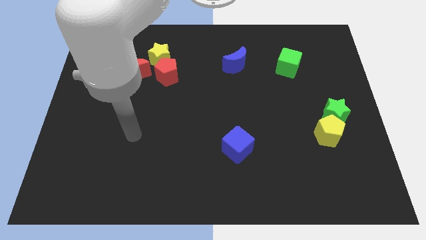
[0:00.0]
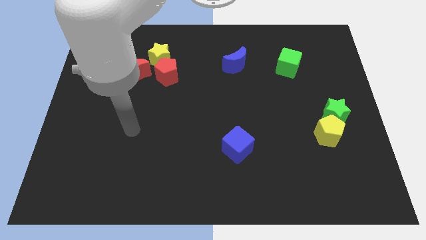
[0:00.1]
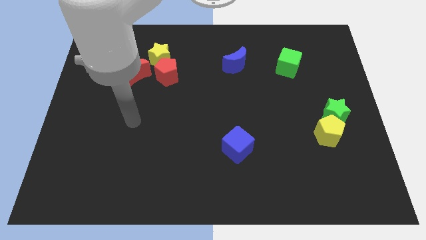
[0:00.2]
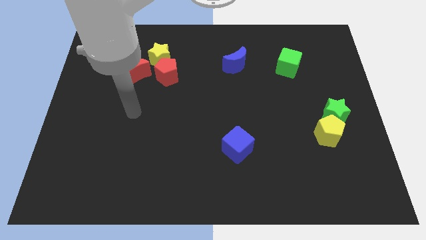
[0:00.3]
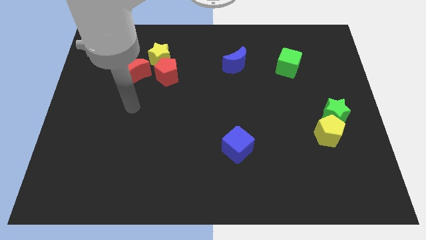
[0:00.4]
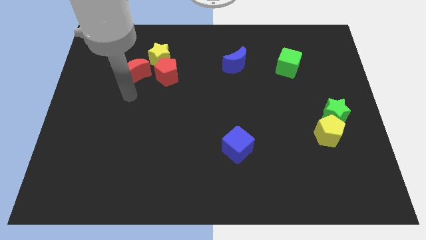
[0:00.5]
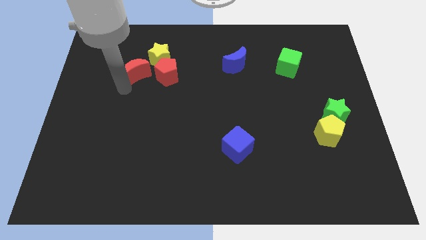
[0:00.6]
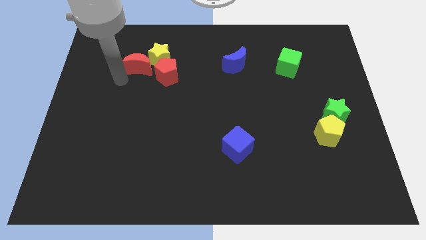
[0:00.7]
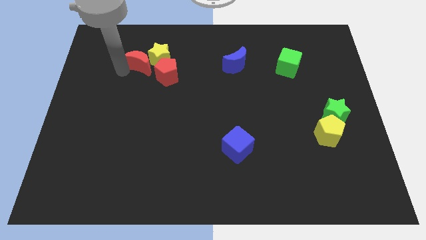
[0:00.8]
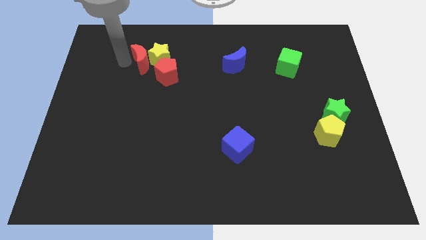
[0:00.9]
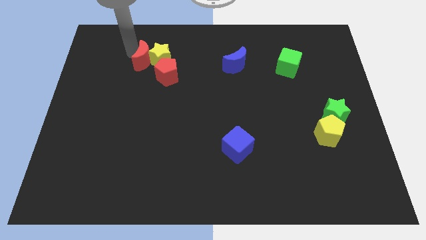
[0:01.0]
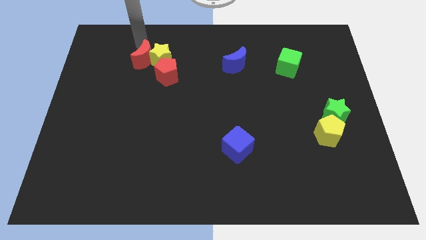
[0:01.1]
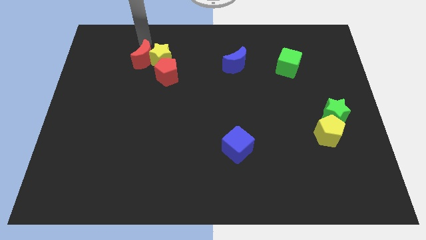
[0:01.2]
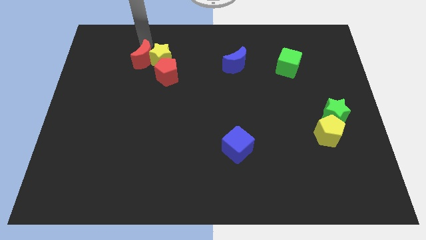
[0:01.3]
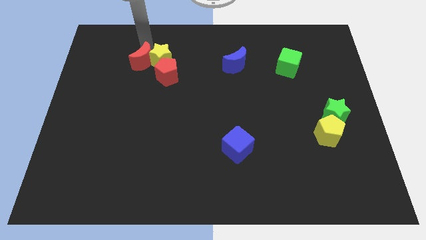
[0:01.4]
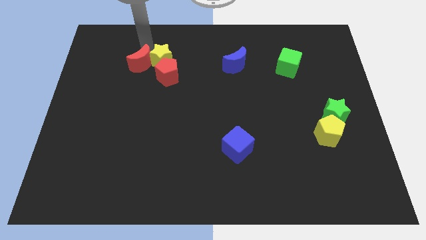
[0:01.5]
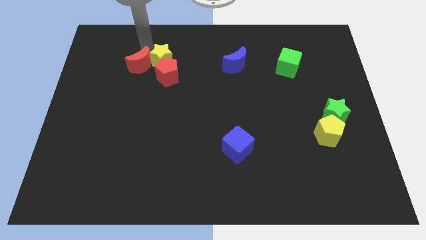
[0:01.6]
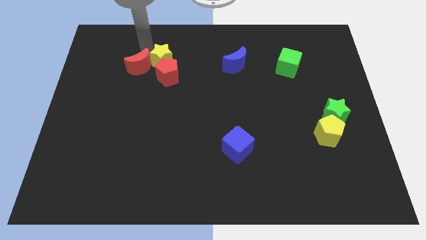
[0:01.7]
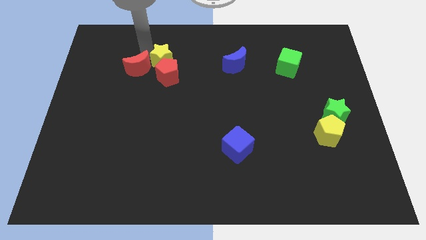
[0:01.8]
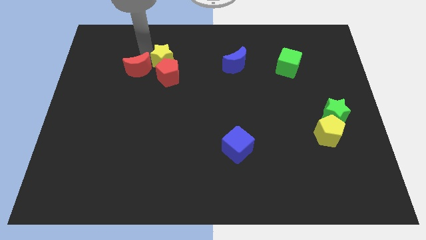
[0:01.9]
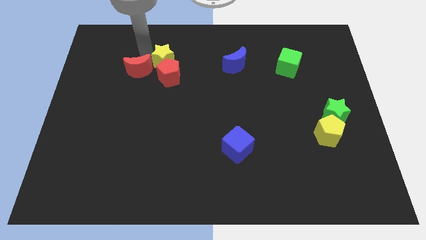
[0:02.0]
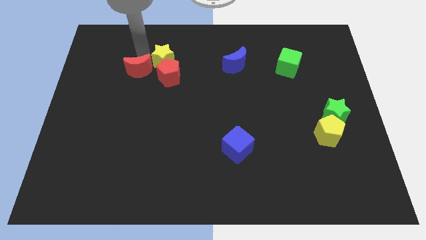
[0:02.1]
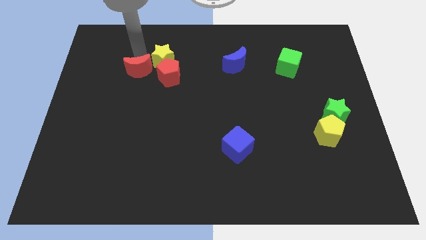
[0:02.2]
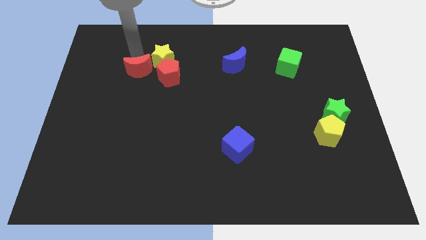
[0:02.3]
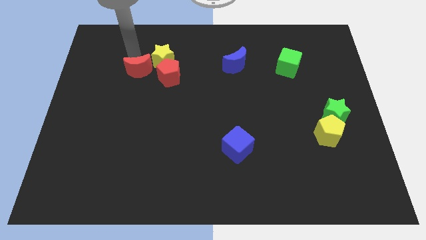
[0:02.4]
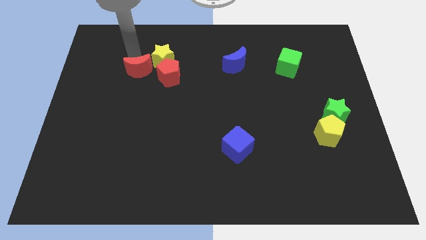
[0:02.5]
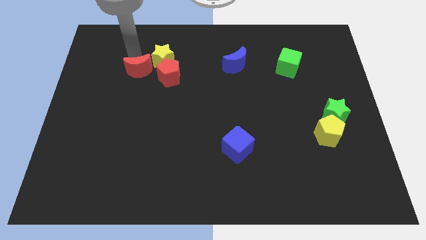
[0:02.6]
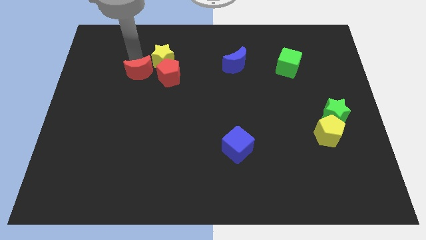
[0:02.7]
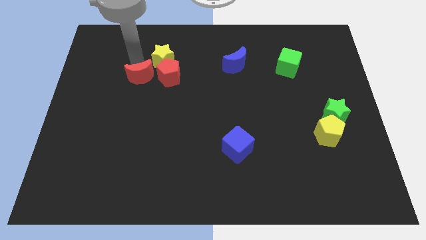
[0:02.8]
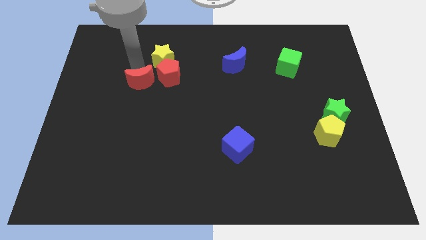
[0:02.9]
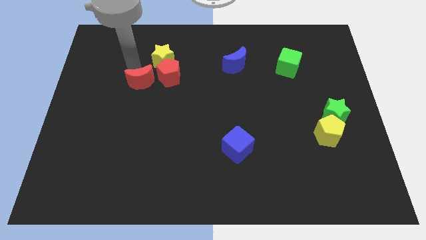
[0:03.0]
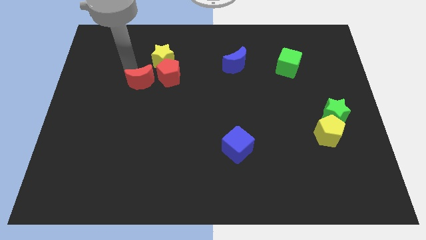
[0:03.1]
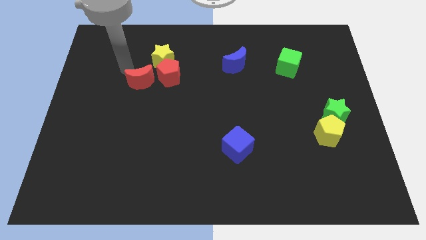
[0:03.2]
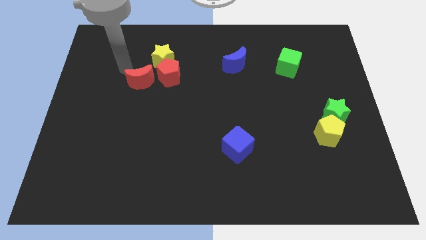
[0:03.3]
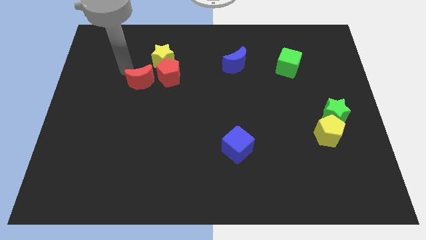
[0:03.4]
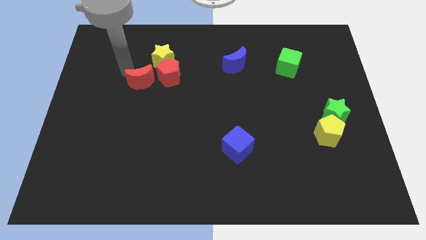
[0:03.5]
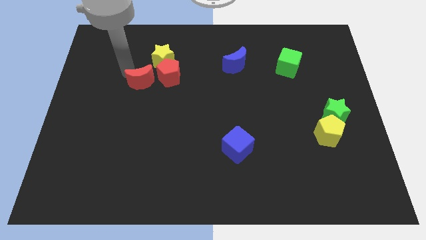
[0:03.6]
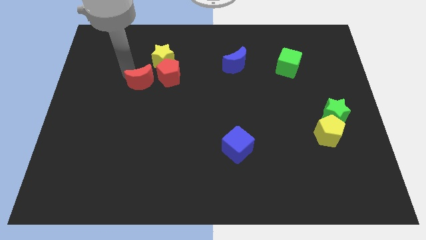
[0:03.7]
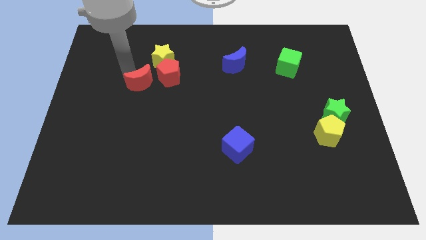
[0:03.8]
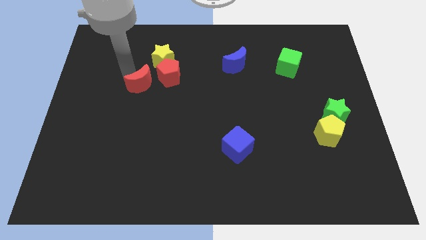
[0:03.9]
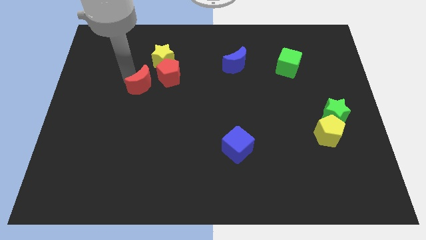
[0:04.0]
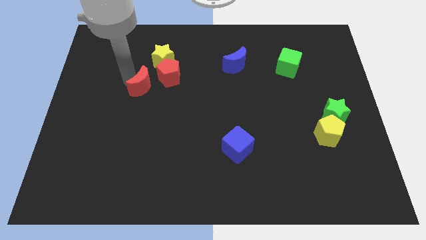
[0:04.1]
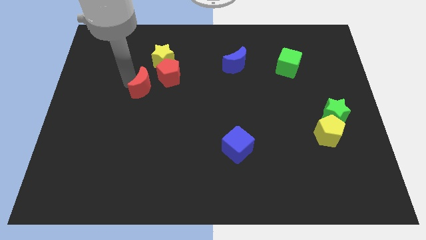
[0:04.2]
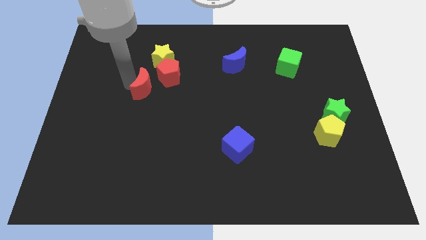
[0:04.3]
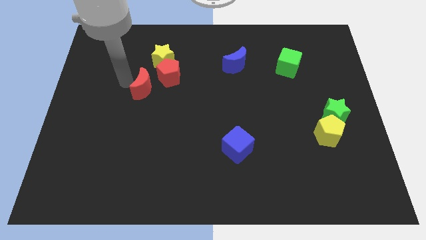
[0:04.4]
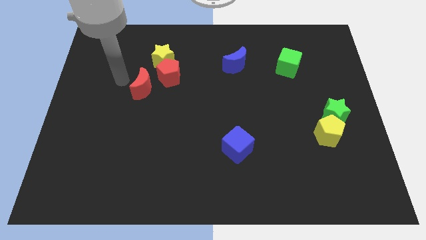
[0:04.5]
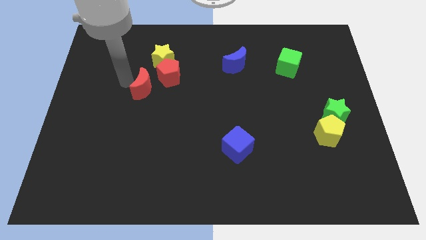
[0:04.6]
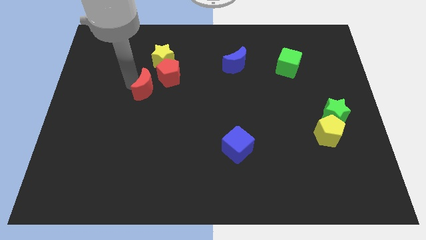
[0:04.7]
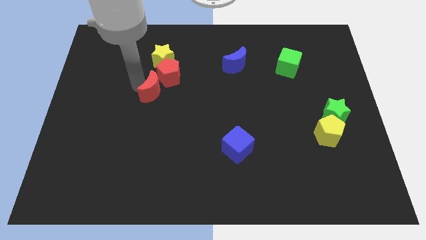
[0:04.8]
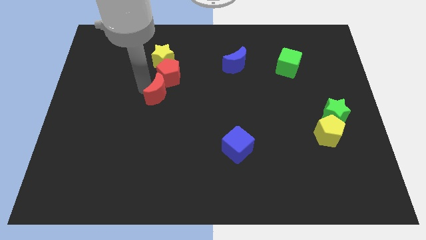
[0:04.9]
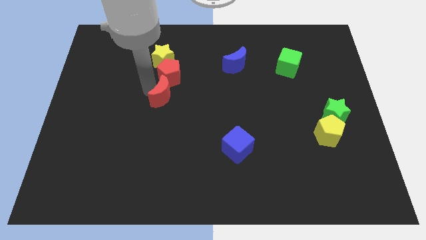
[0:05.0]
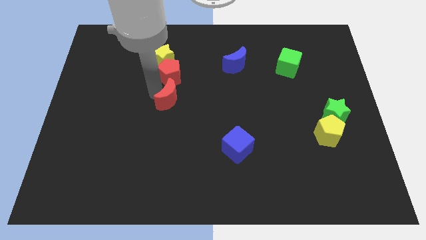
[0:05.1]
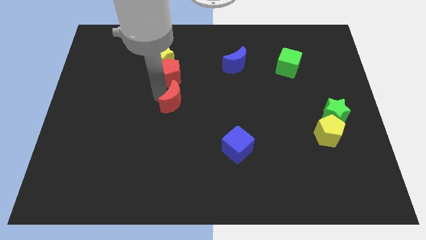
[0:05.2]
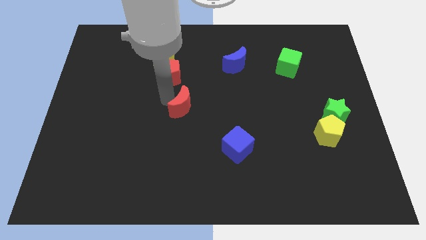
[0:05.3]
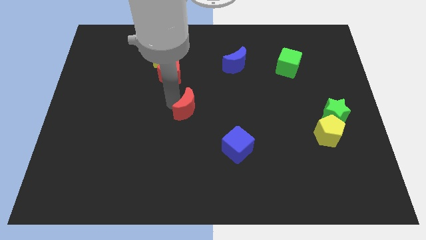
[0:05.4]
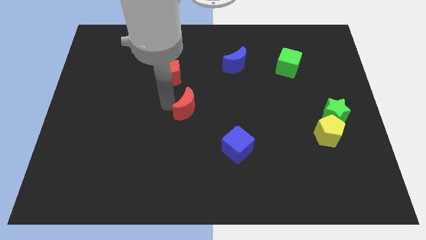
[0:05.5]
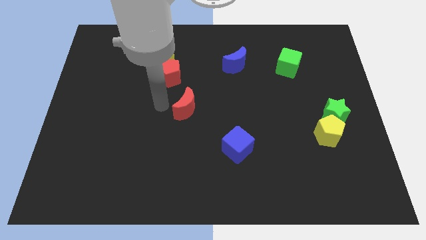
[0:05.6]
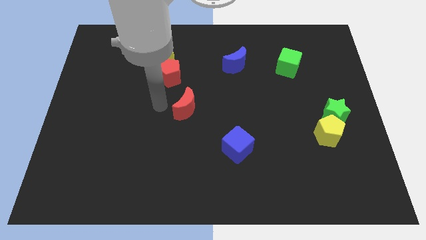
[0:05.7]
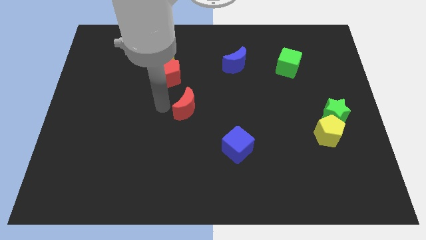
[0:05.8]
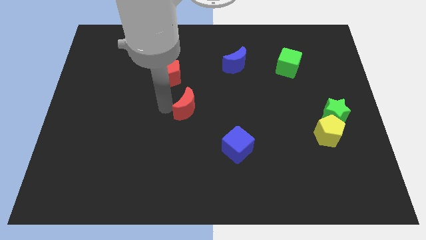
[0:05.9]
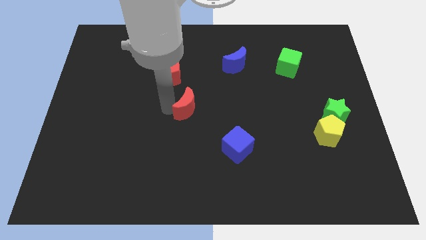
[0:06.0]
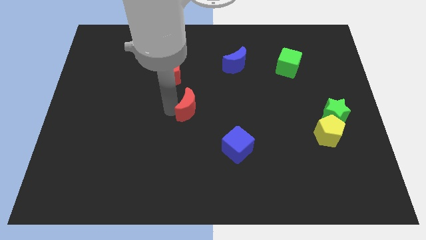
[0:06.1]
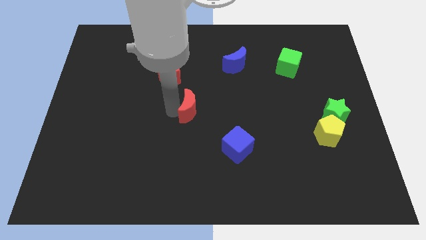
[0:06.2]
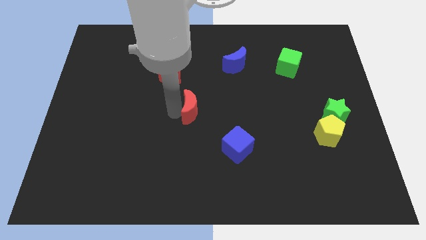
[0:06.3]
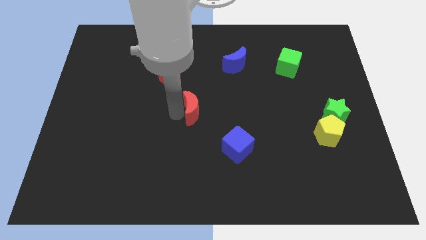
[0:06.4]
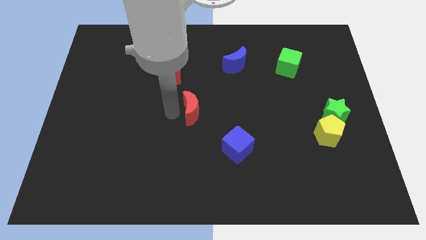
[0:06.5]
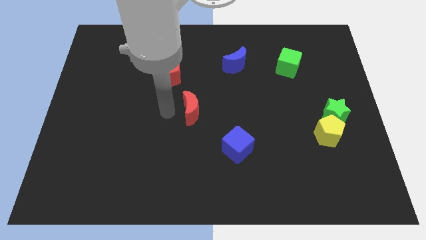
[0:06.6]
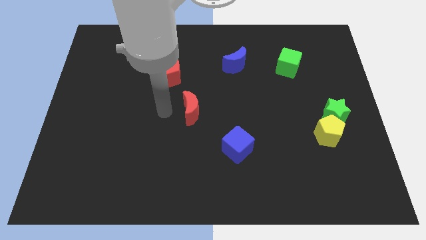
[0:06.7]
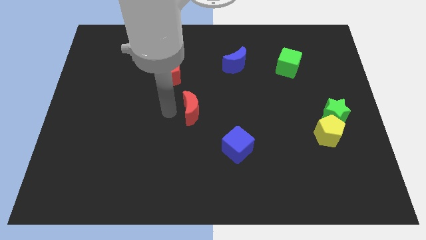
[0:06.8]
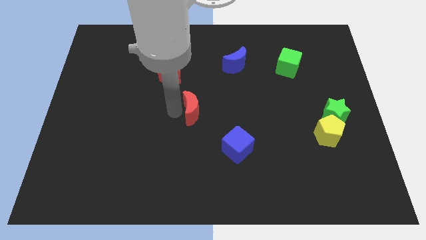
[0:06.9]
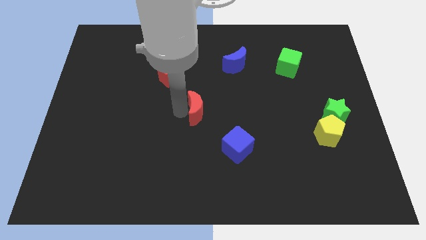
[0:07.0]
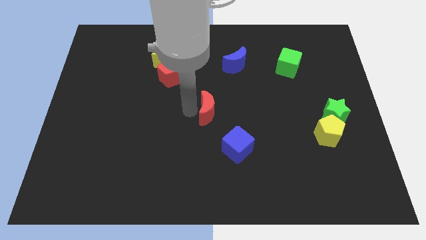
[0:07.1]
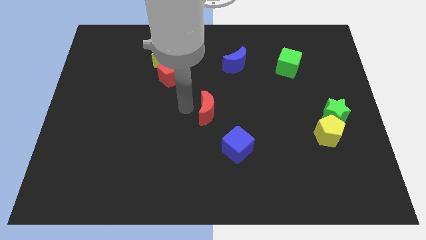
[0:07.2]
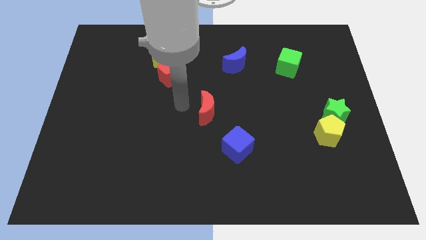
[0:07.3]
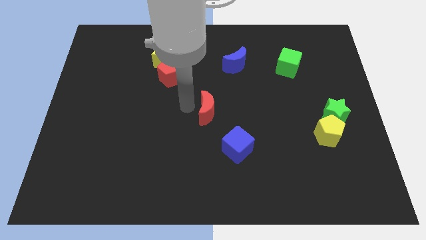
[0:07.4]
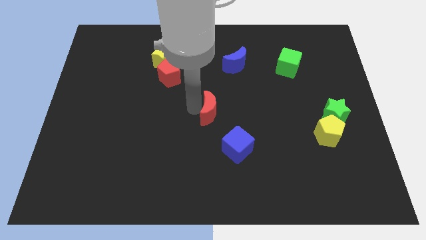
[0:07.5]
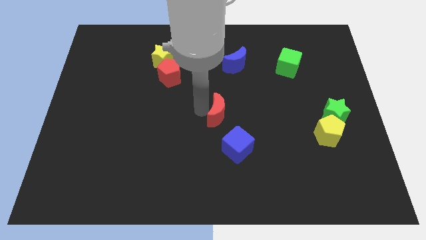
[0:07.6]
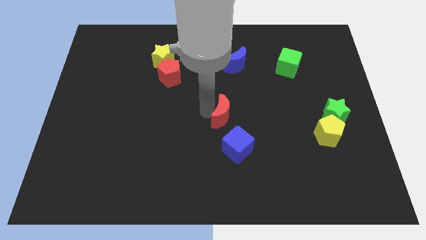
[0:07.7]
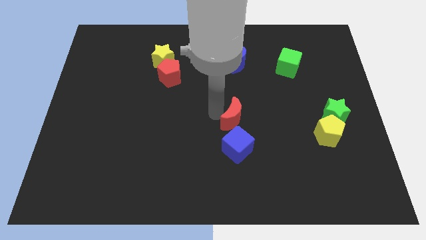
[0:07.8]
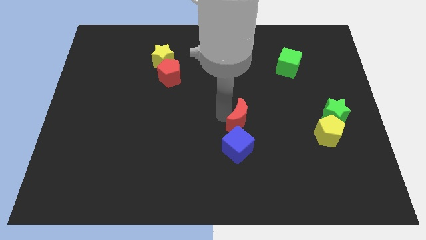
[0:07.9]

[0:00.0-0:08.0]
push the red moon to the top right side of the blue cube
